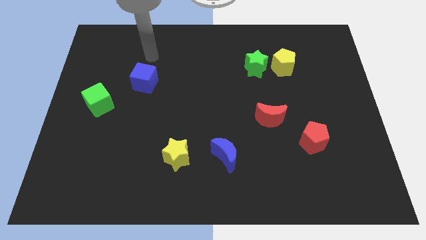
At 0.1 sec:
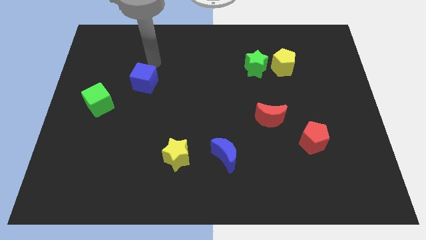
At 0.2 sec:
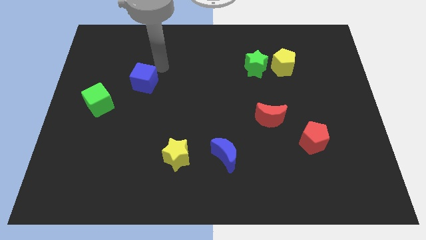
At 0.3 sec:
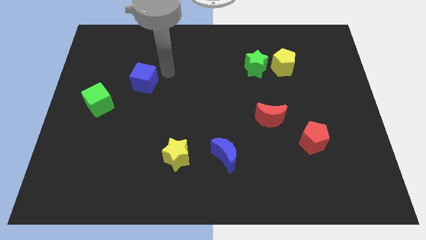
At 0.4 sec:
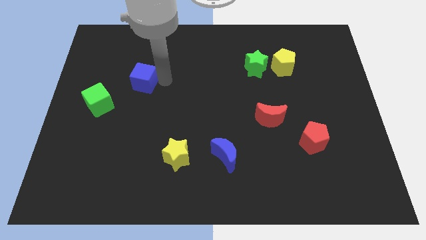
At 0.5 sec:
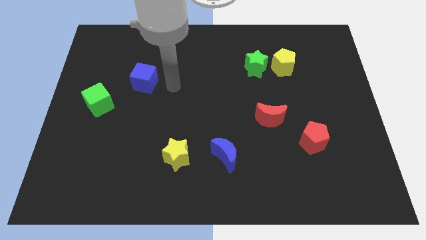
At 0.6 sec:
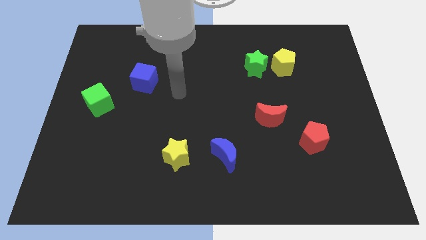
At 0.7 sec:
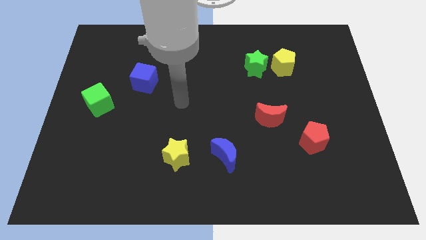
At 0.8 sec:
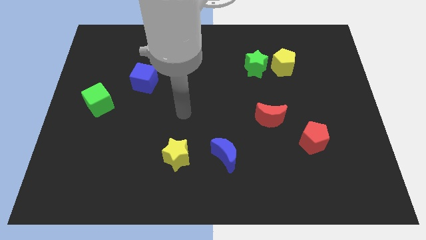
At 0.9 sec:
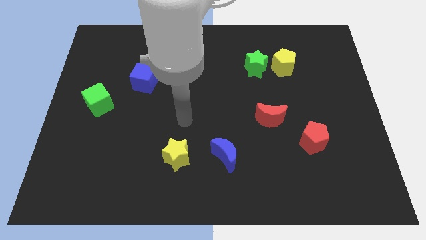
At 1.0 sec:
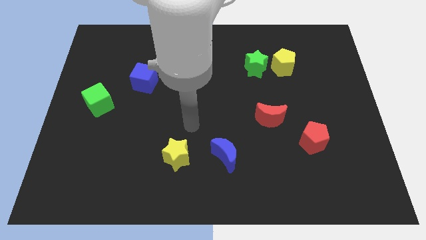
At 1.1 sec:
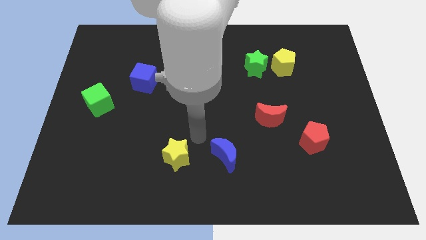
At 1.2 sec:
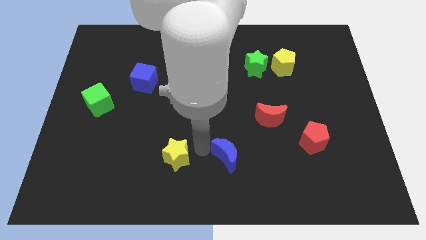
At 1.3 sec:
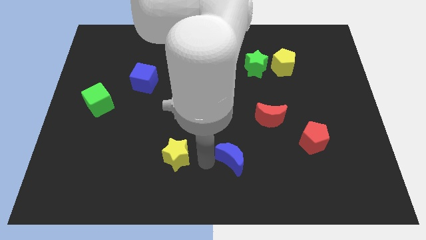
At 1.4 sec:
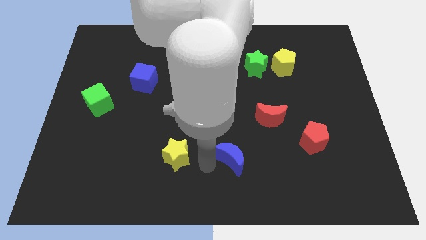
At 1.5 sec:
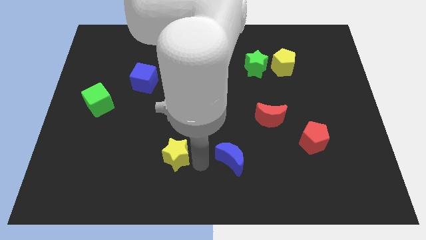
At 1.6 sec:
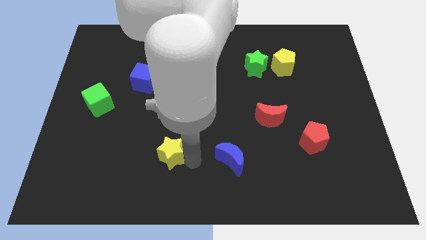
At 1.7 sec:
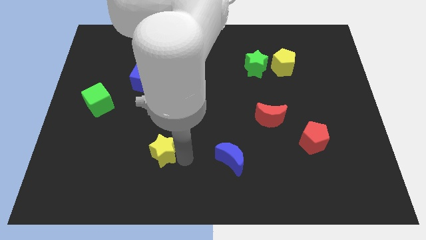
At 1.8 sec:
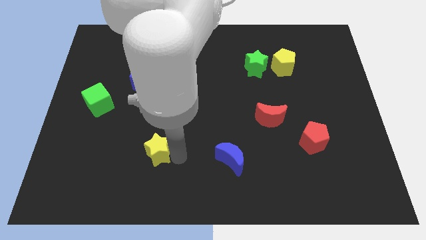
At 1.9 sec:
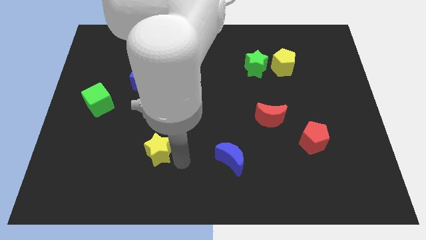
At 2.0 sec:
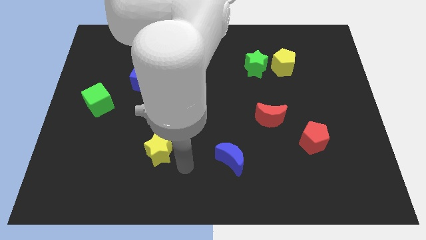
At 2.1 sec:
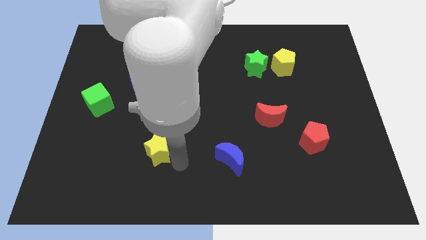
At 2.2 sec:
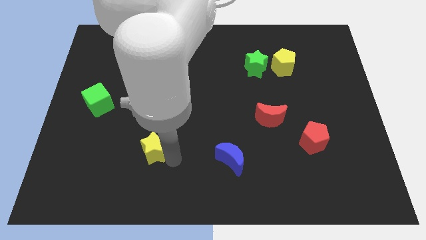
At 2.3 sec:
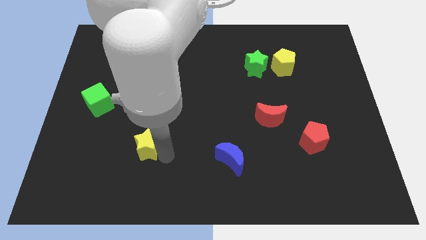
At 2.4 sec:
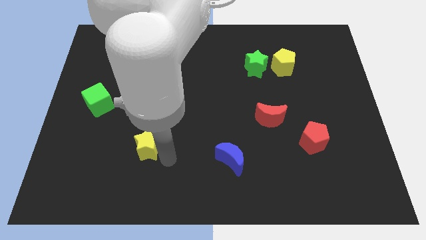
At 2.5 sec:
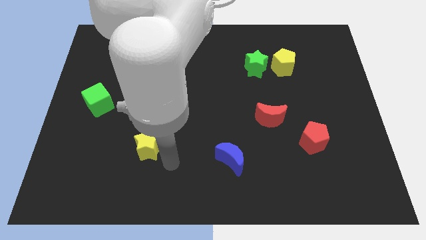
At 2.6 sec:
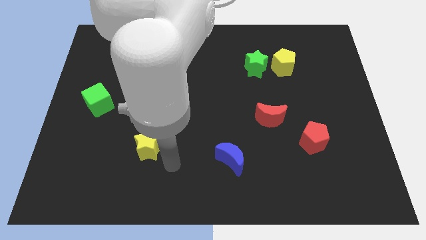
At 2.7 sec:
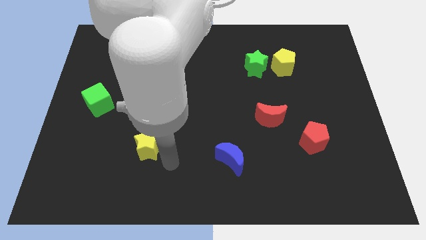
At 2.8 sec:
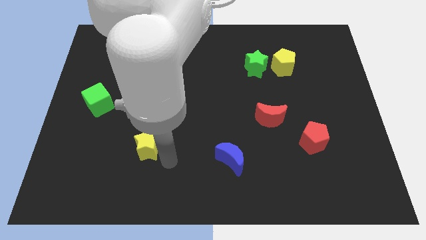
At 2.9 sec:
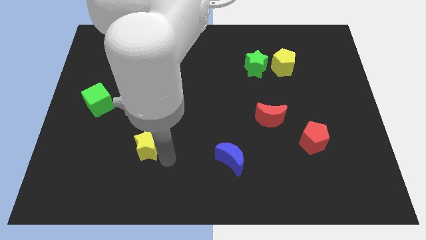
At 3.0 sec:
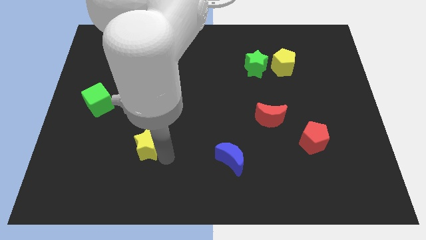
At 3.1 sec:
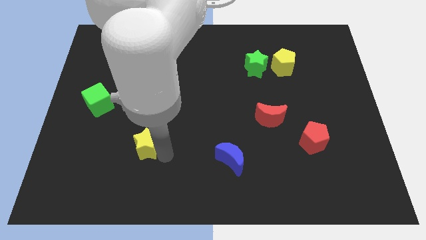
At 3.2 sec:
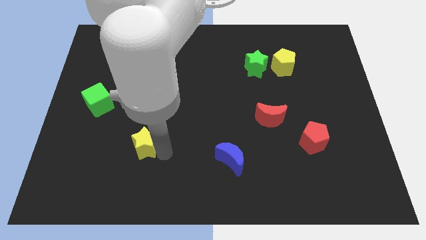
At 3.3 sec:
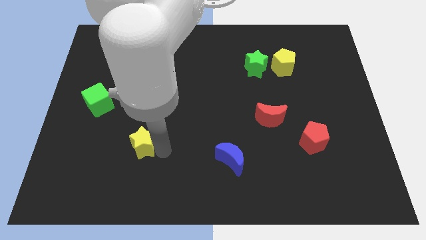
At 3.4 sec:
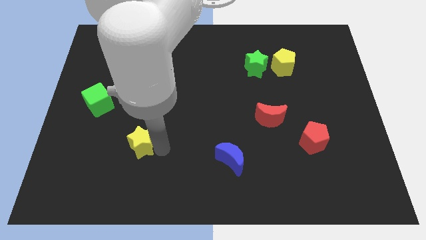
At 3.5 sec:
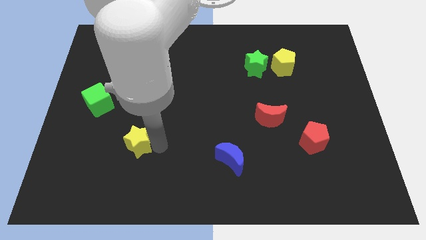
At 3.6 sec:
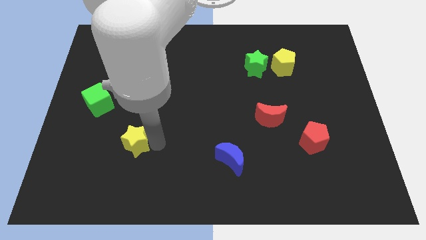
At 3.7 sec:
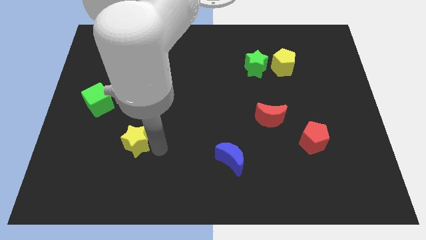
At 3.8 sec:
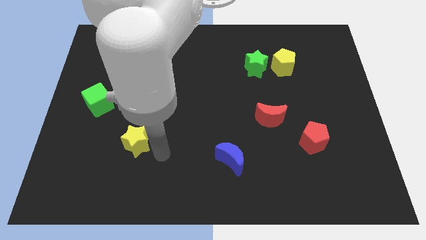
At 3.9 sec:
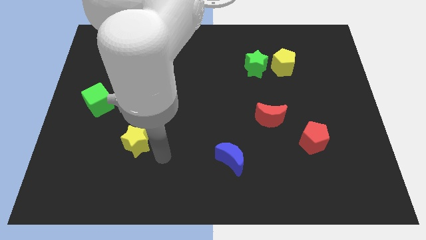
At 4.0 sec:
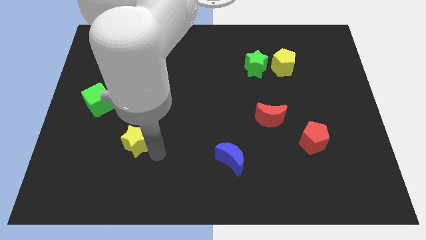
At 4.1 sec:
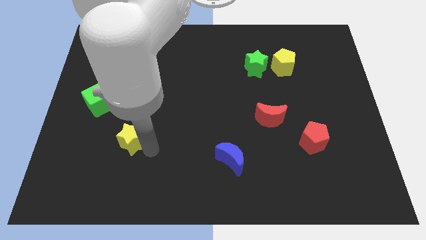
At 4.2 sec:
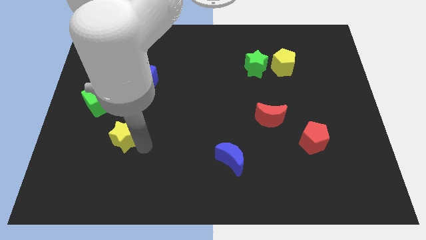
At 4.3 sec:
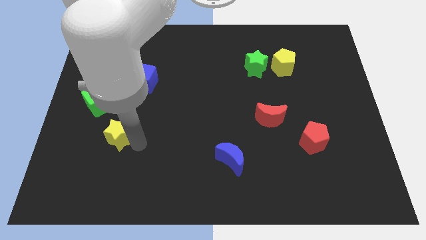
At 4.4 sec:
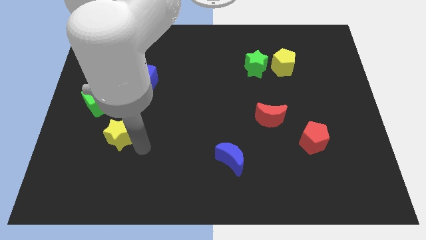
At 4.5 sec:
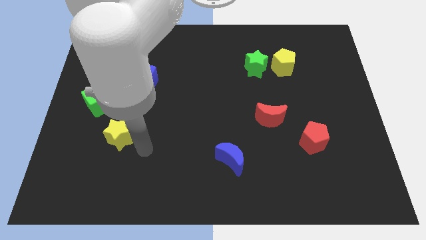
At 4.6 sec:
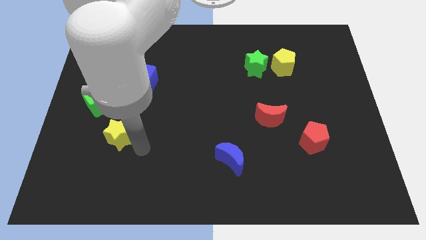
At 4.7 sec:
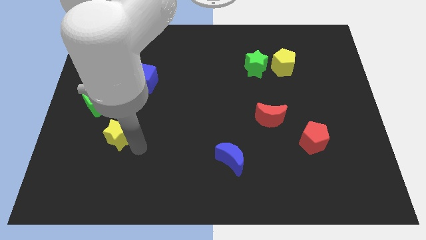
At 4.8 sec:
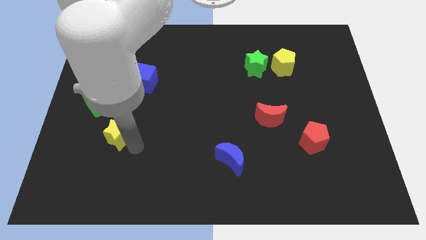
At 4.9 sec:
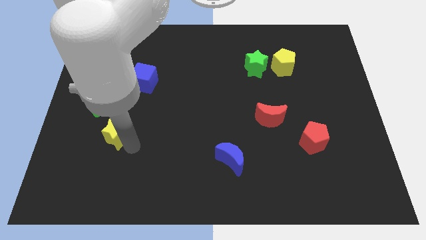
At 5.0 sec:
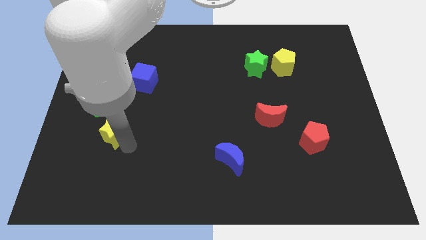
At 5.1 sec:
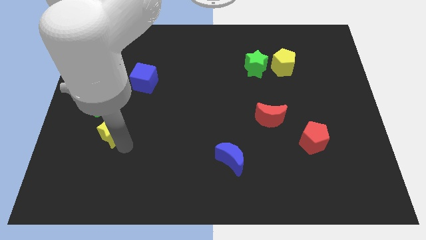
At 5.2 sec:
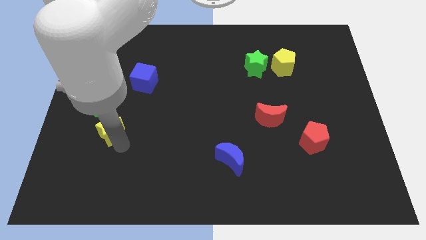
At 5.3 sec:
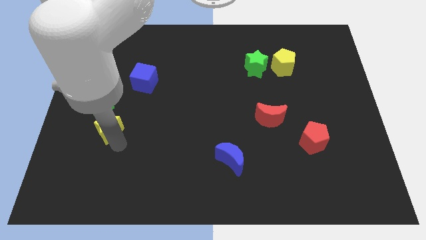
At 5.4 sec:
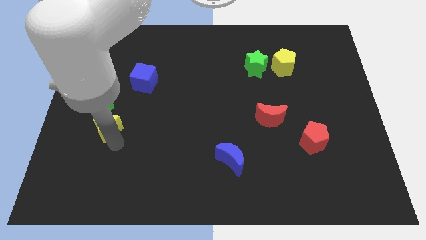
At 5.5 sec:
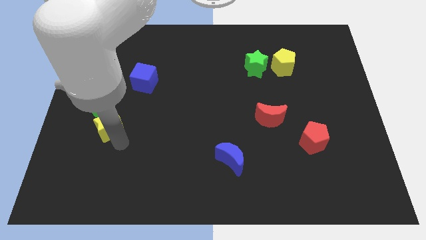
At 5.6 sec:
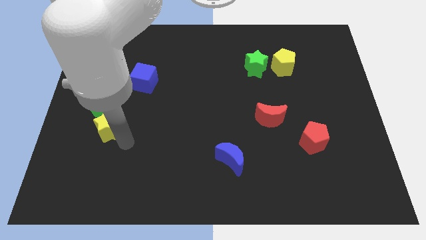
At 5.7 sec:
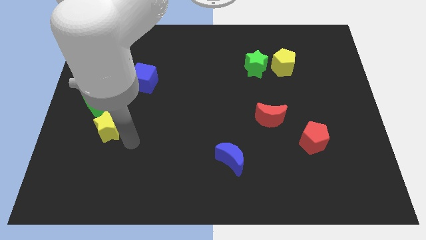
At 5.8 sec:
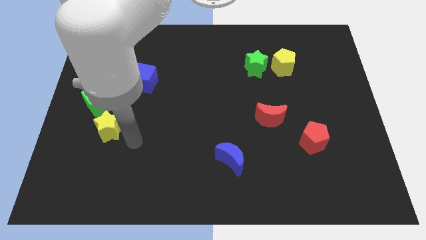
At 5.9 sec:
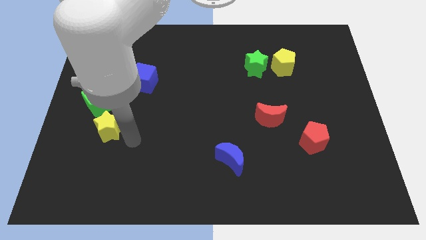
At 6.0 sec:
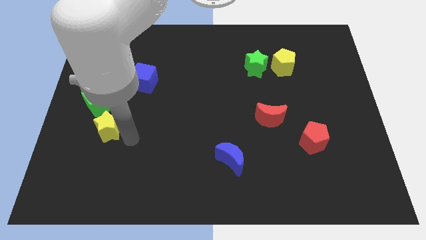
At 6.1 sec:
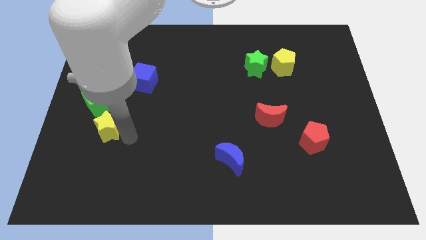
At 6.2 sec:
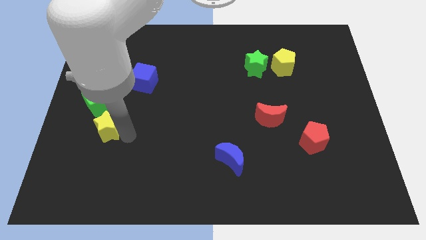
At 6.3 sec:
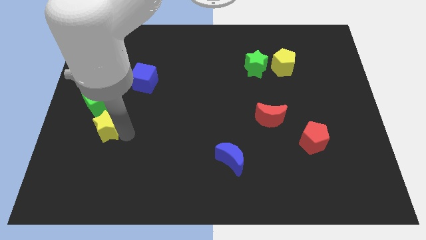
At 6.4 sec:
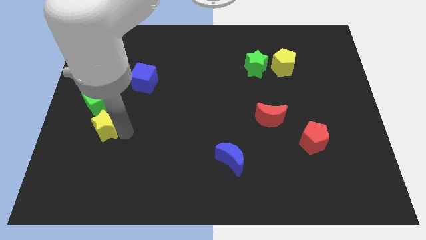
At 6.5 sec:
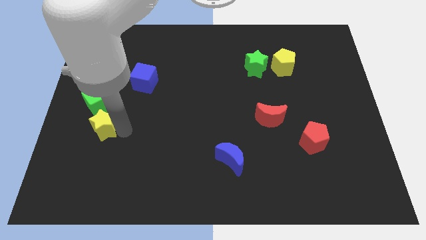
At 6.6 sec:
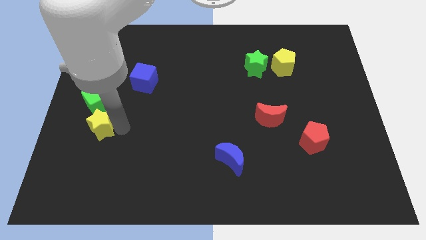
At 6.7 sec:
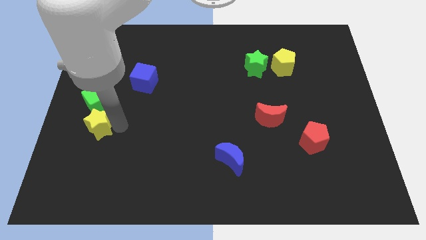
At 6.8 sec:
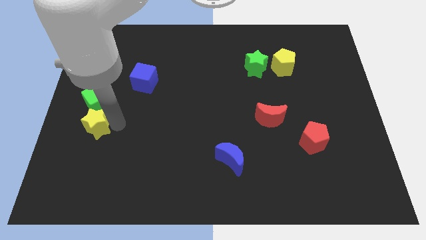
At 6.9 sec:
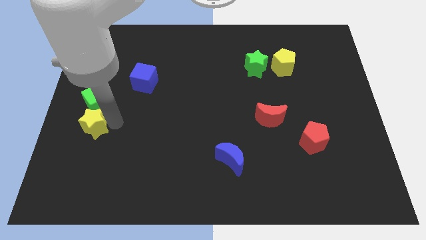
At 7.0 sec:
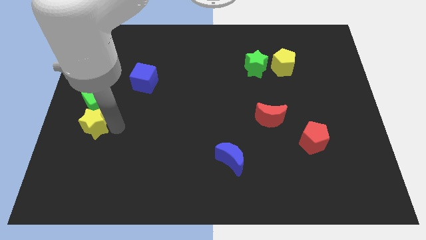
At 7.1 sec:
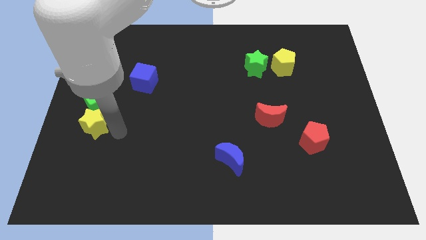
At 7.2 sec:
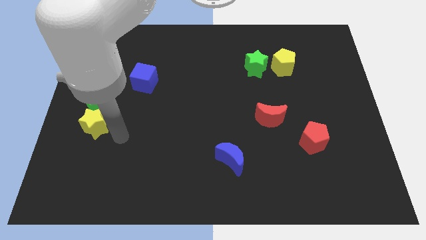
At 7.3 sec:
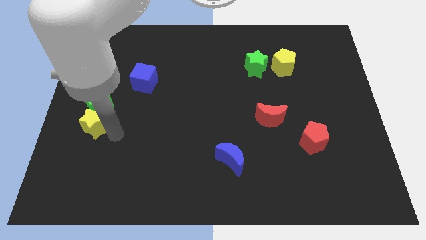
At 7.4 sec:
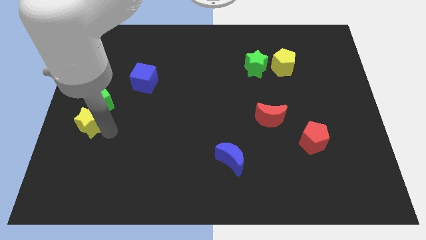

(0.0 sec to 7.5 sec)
push the yellow star to the center left
